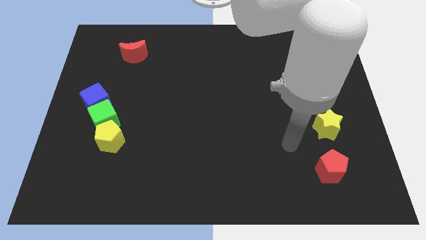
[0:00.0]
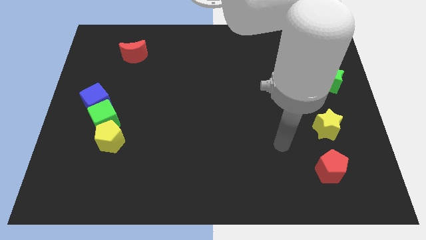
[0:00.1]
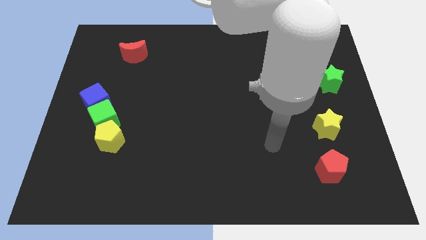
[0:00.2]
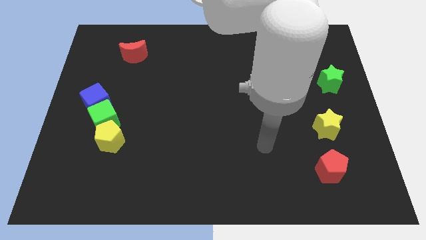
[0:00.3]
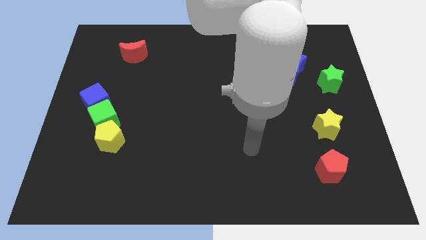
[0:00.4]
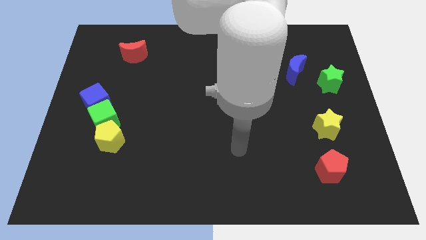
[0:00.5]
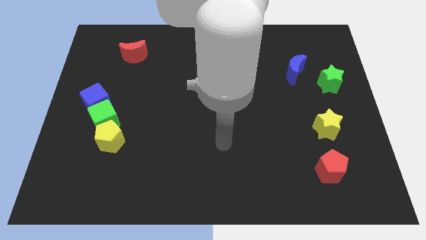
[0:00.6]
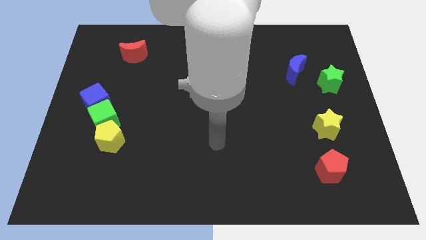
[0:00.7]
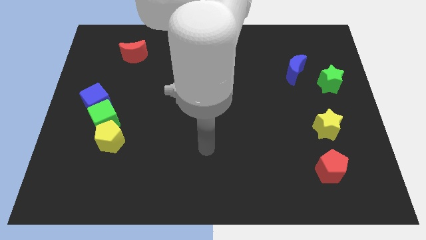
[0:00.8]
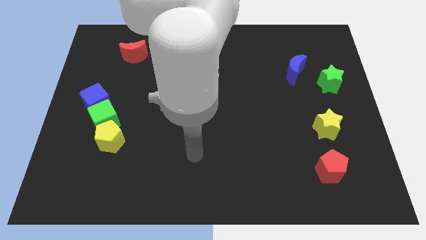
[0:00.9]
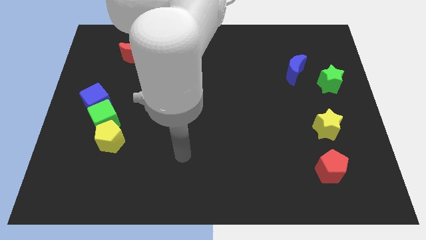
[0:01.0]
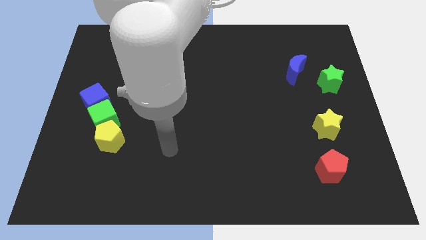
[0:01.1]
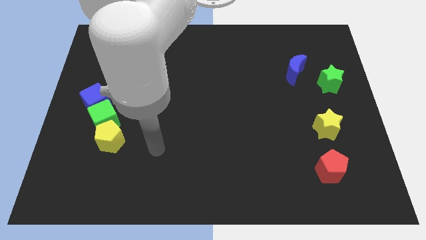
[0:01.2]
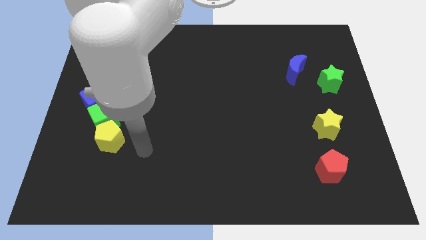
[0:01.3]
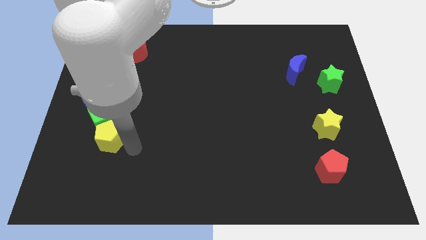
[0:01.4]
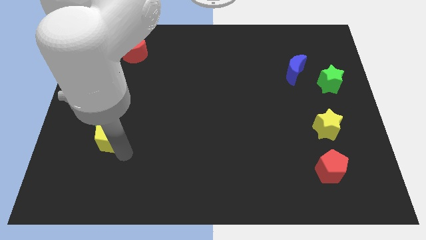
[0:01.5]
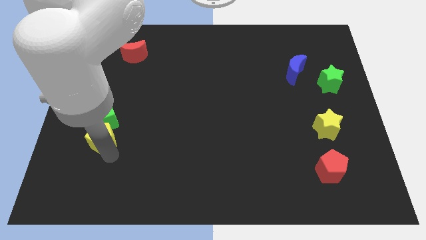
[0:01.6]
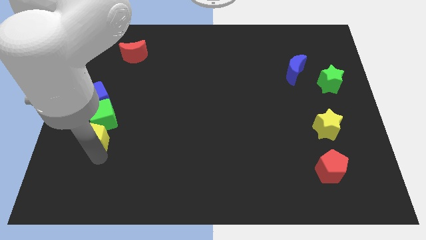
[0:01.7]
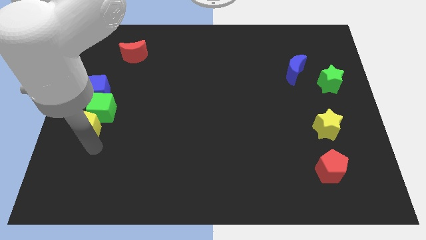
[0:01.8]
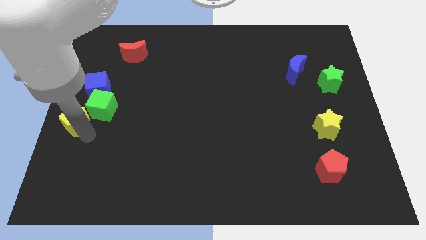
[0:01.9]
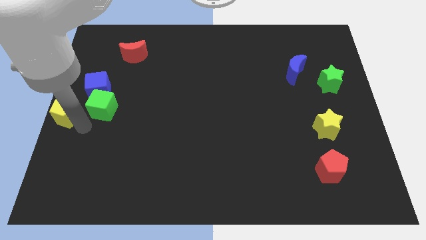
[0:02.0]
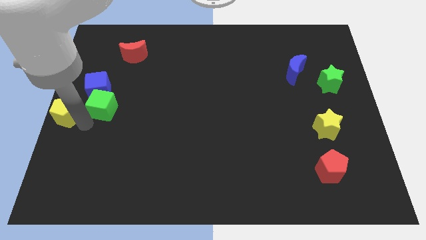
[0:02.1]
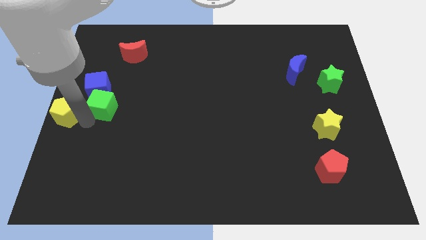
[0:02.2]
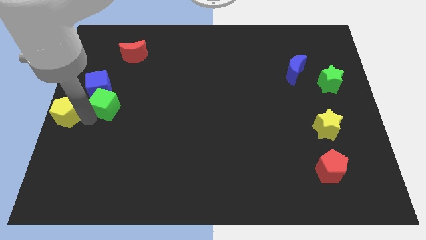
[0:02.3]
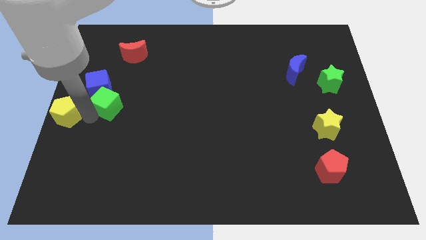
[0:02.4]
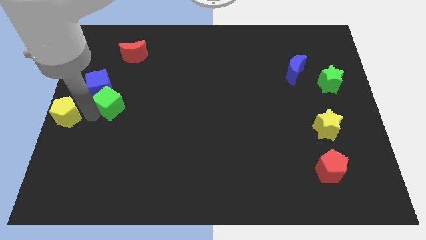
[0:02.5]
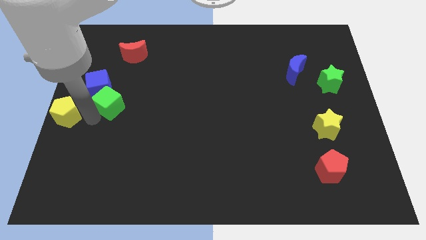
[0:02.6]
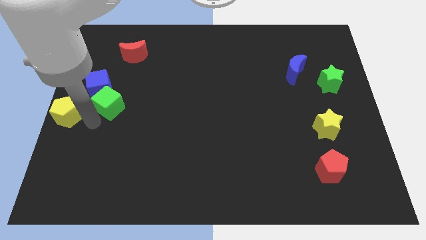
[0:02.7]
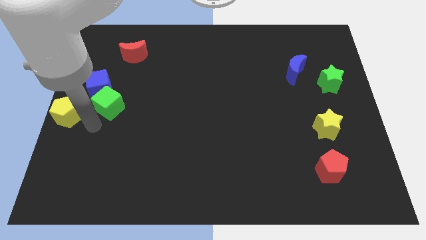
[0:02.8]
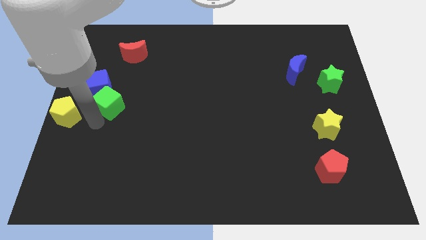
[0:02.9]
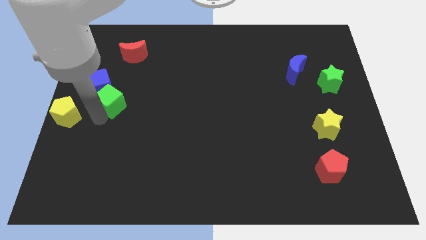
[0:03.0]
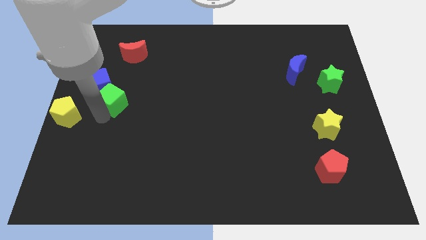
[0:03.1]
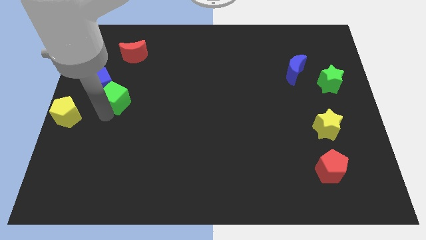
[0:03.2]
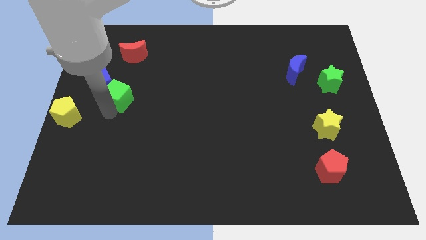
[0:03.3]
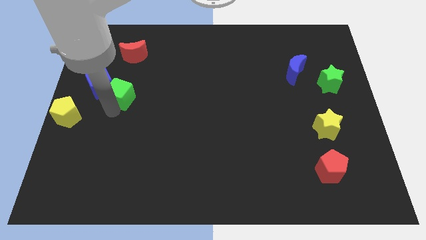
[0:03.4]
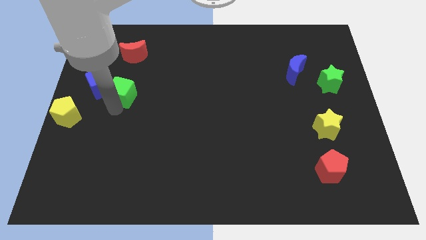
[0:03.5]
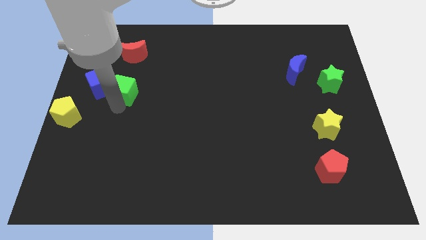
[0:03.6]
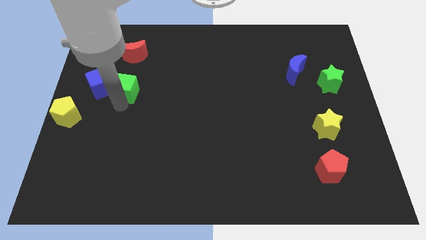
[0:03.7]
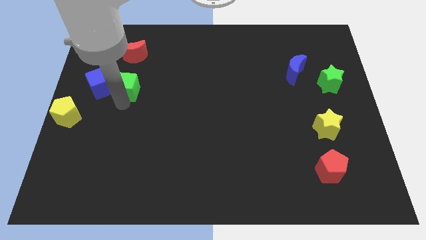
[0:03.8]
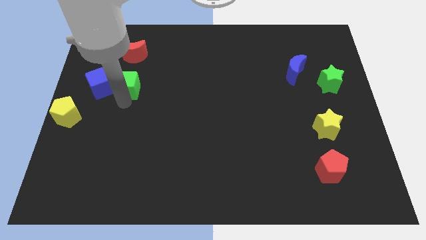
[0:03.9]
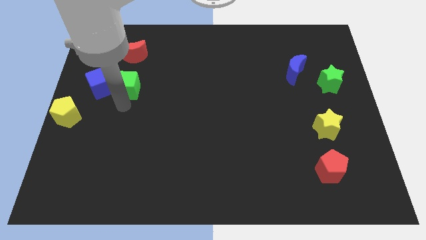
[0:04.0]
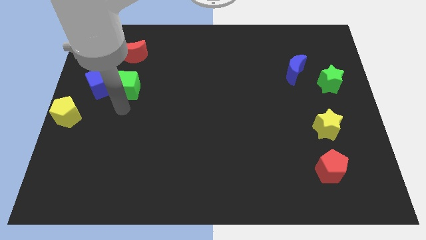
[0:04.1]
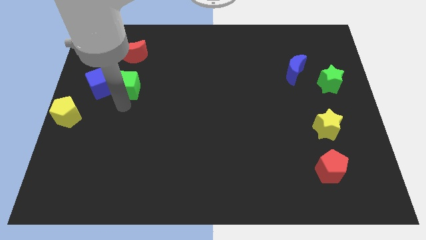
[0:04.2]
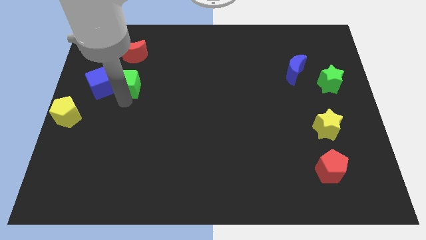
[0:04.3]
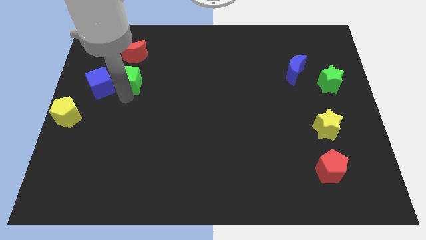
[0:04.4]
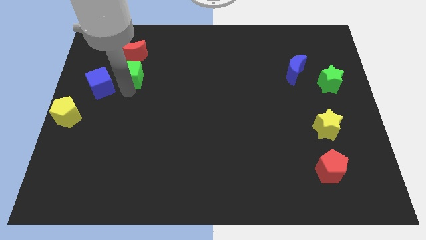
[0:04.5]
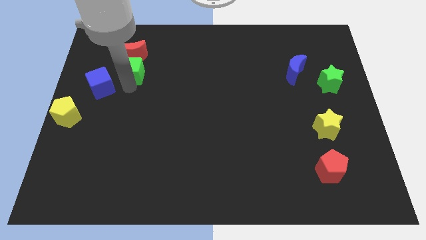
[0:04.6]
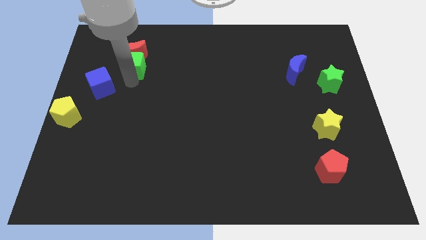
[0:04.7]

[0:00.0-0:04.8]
slide the green cube next to the red moon

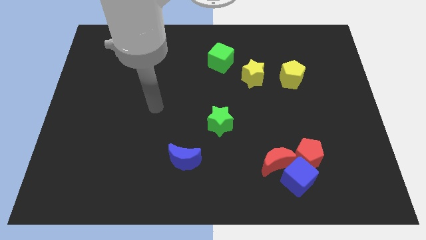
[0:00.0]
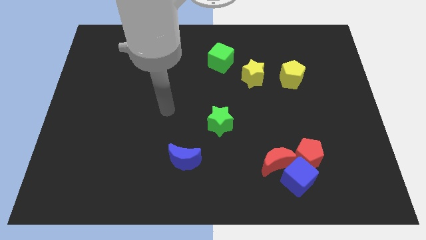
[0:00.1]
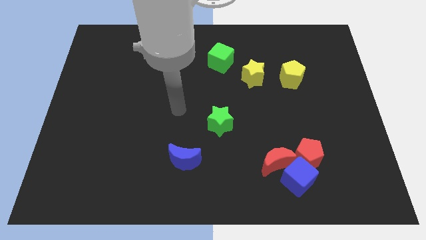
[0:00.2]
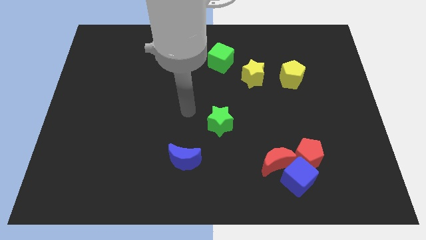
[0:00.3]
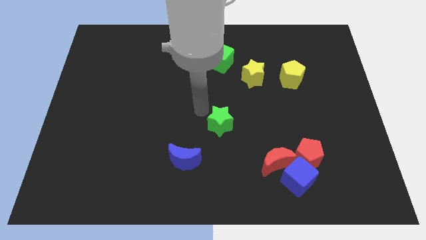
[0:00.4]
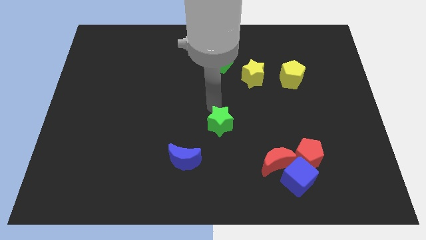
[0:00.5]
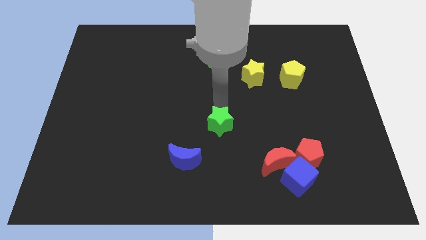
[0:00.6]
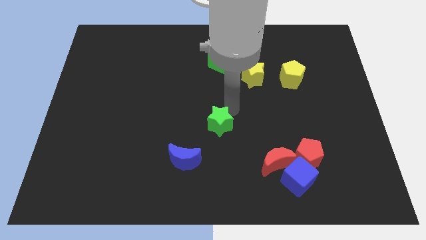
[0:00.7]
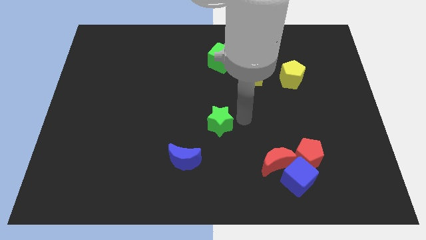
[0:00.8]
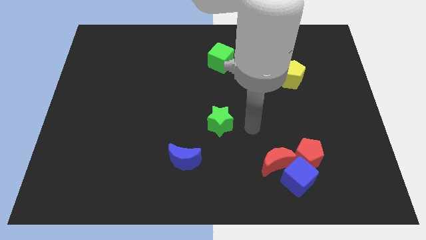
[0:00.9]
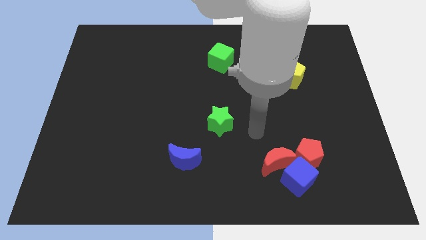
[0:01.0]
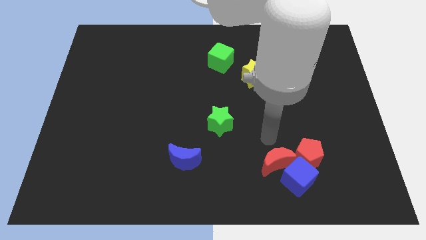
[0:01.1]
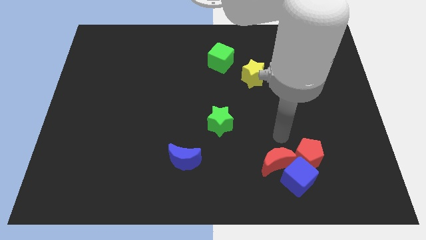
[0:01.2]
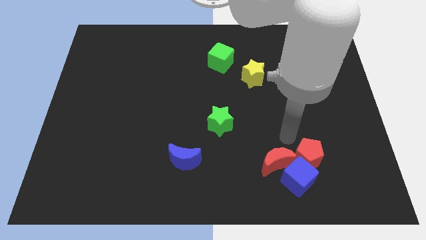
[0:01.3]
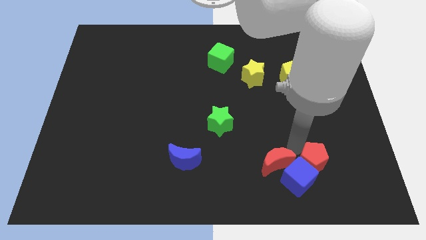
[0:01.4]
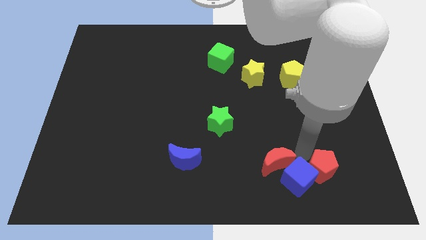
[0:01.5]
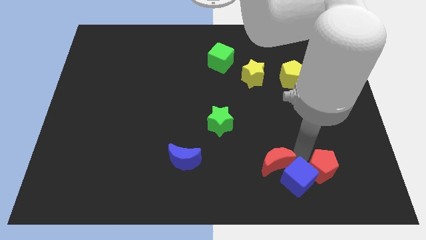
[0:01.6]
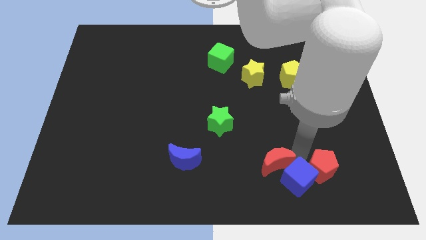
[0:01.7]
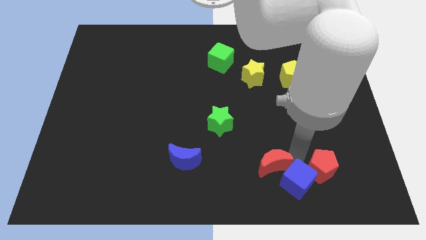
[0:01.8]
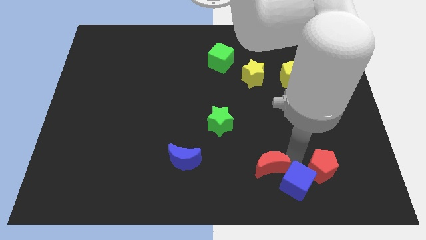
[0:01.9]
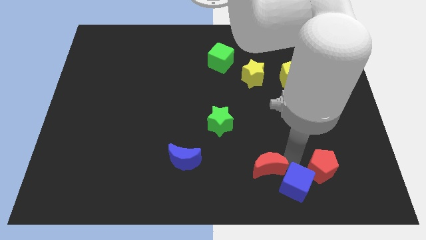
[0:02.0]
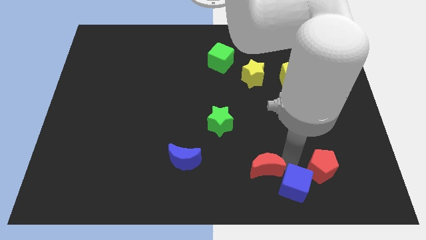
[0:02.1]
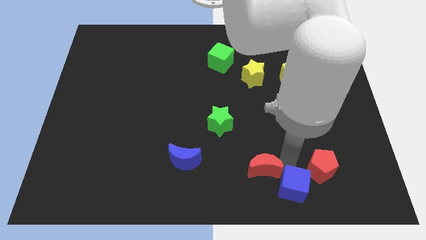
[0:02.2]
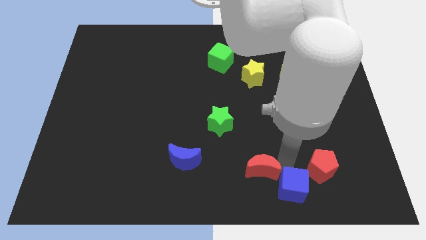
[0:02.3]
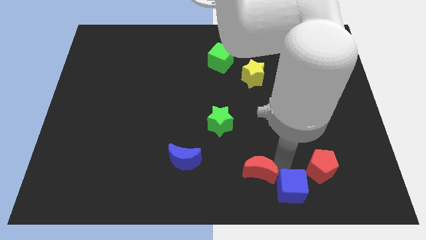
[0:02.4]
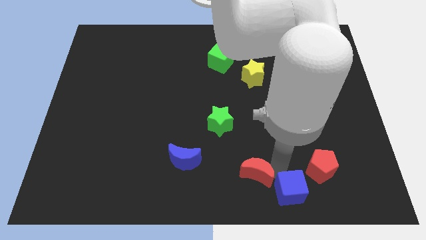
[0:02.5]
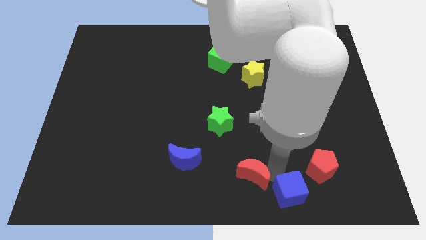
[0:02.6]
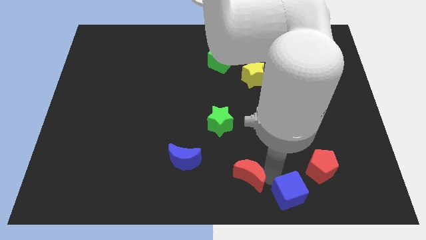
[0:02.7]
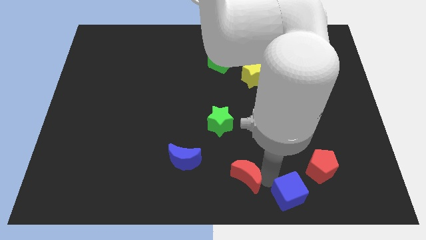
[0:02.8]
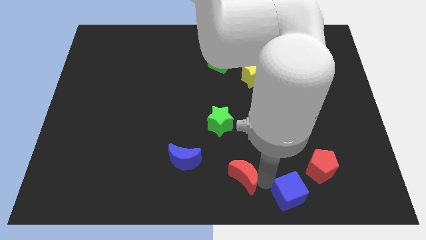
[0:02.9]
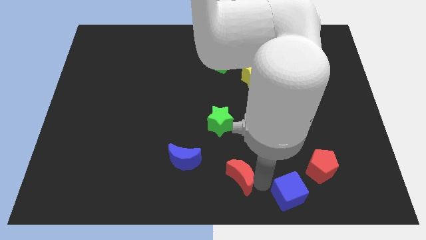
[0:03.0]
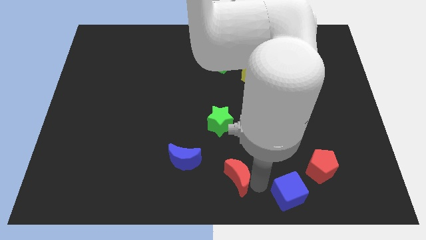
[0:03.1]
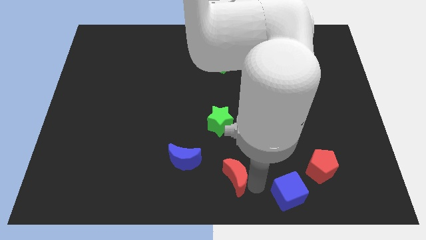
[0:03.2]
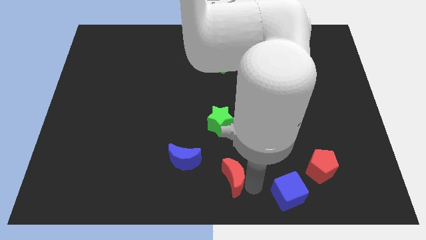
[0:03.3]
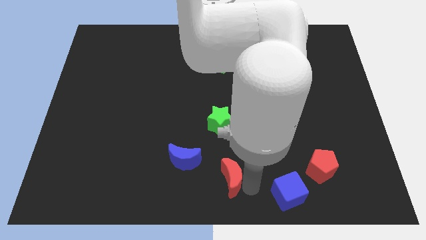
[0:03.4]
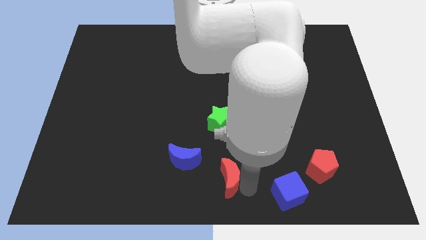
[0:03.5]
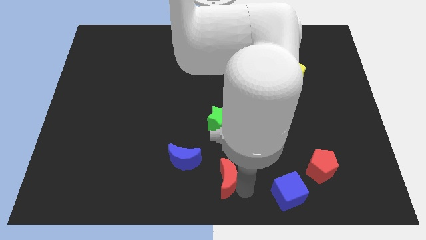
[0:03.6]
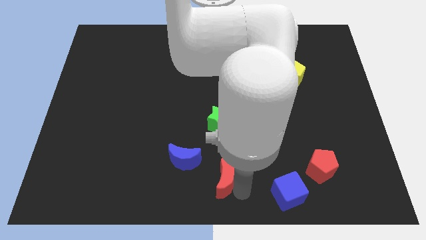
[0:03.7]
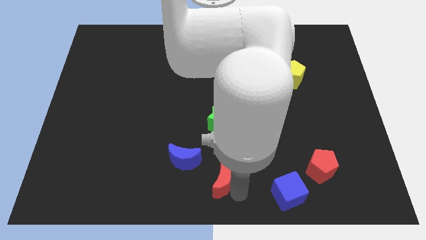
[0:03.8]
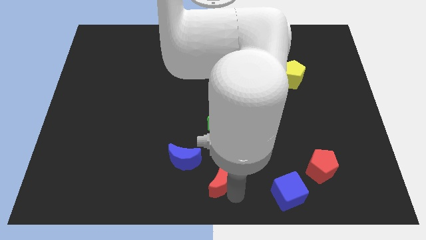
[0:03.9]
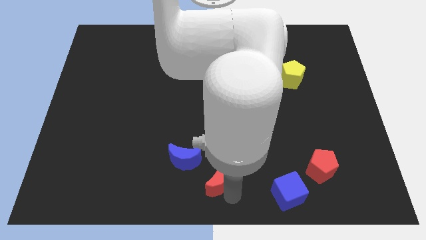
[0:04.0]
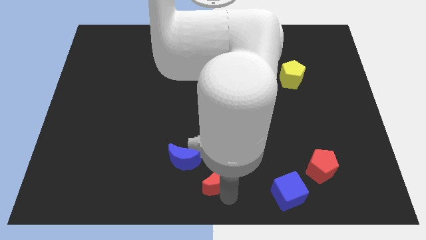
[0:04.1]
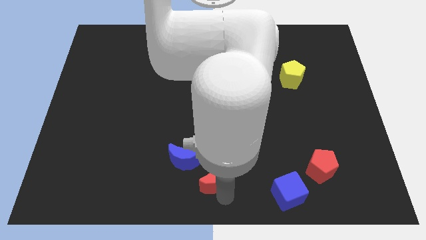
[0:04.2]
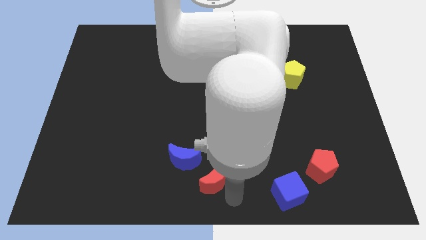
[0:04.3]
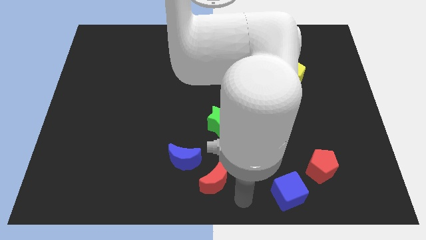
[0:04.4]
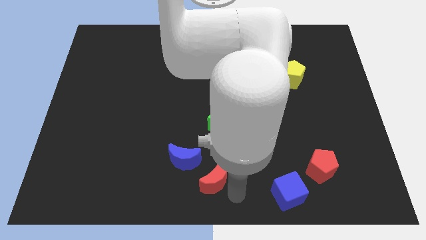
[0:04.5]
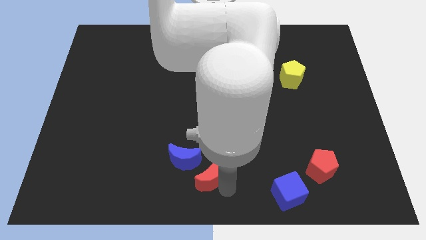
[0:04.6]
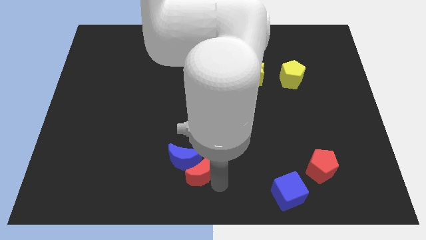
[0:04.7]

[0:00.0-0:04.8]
push the red moon close to the blue moon
